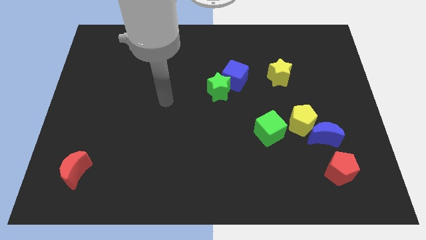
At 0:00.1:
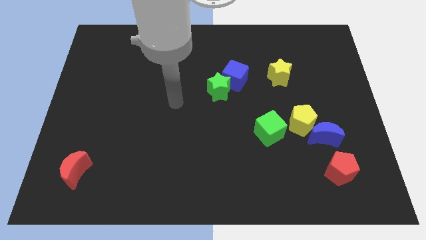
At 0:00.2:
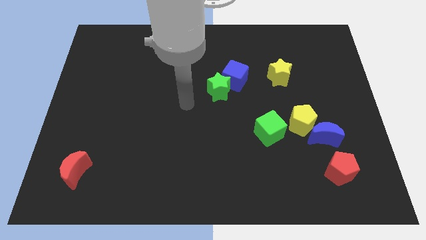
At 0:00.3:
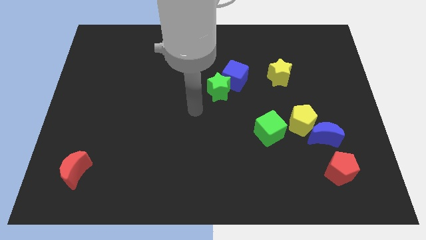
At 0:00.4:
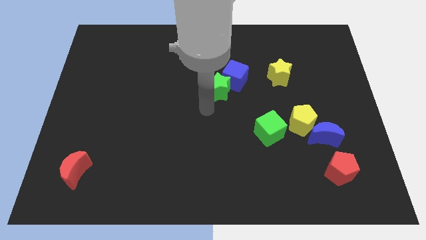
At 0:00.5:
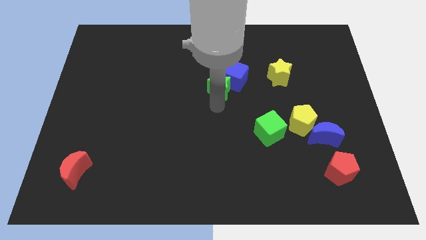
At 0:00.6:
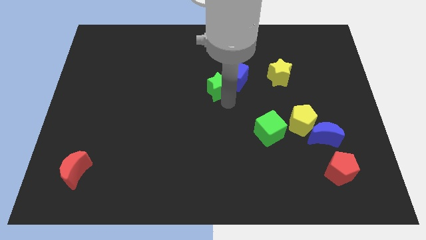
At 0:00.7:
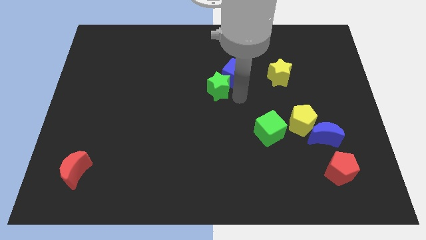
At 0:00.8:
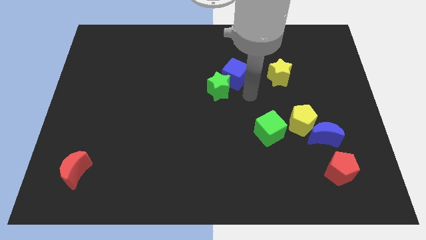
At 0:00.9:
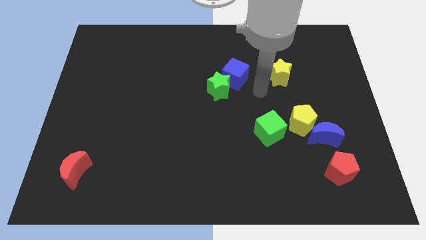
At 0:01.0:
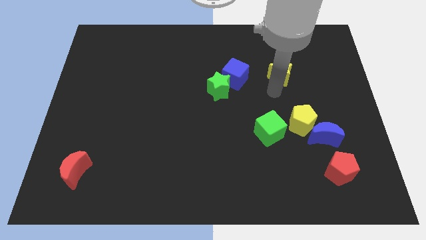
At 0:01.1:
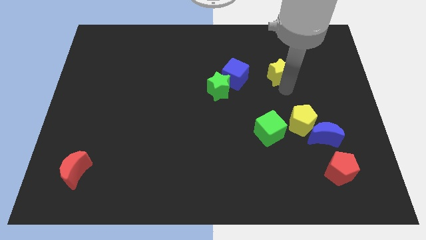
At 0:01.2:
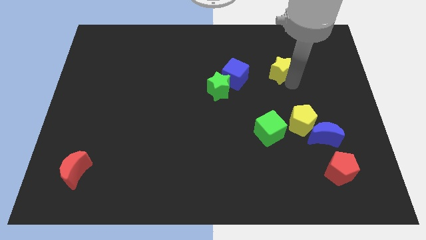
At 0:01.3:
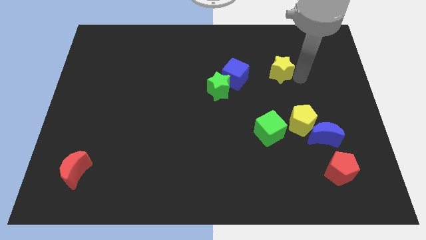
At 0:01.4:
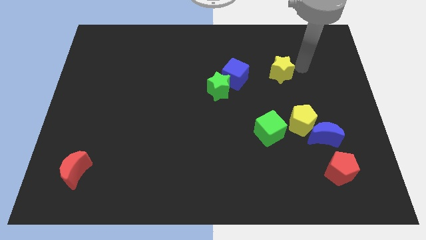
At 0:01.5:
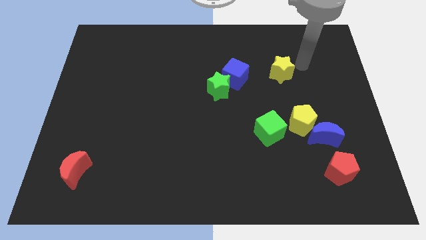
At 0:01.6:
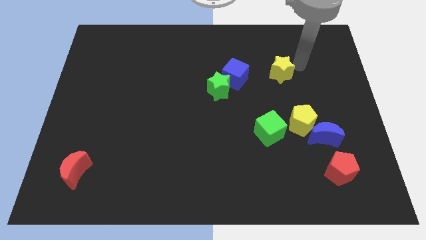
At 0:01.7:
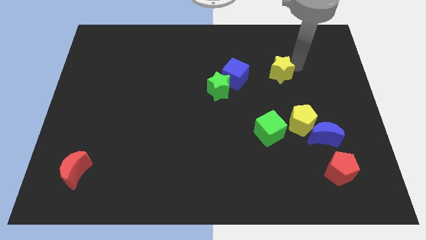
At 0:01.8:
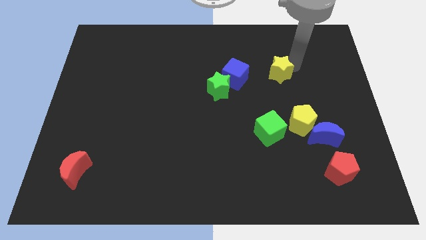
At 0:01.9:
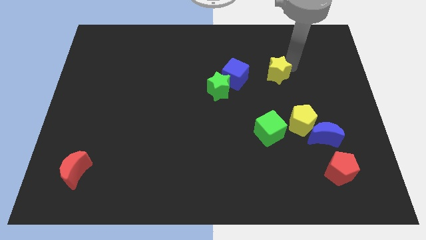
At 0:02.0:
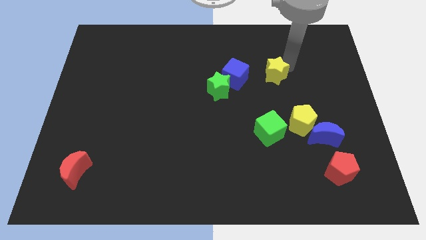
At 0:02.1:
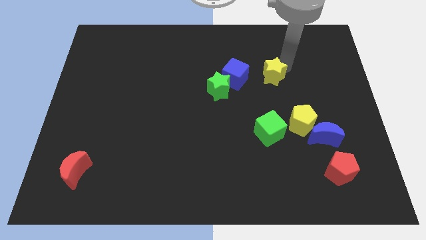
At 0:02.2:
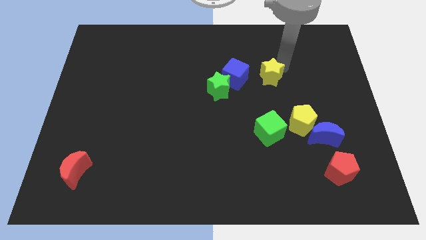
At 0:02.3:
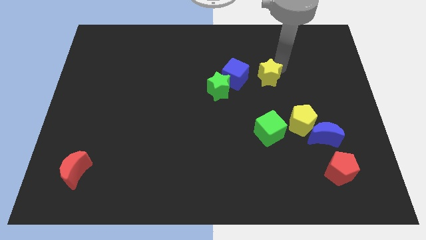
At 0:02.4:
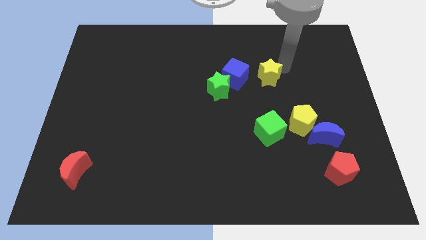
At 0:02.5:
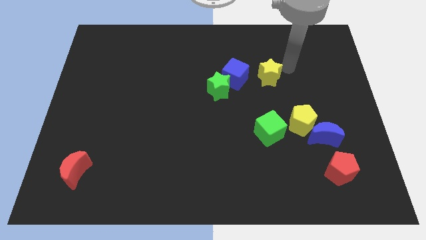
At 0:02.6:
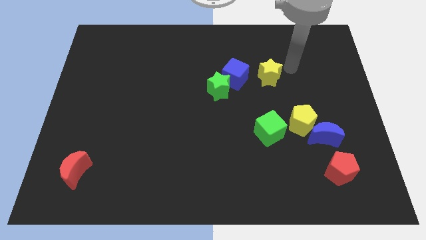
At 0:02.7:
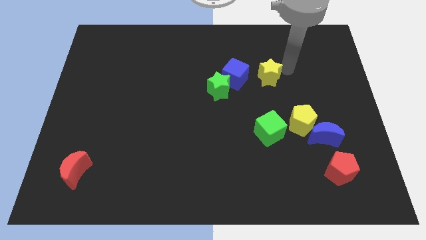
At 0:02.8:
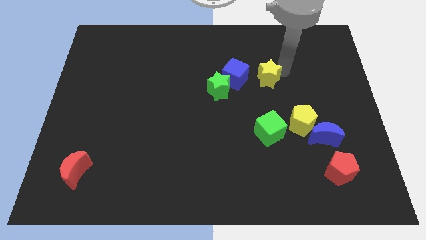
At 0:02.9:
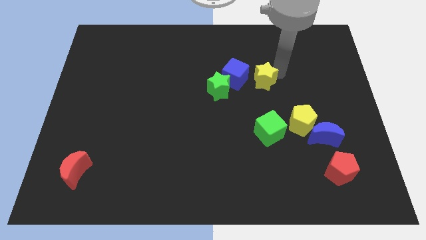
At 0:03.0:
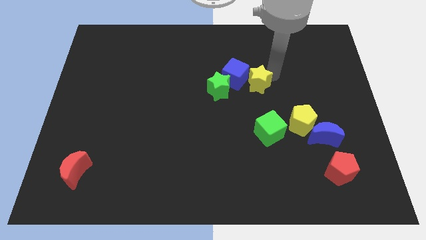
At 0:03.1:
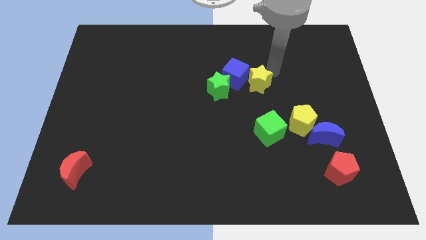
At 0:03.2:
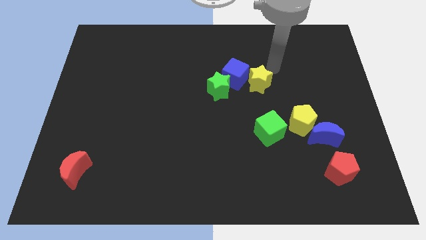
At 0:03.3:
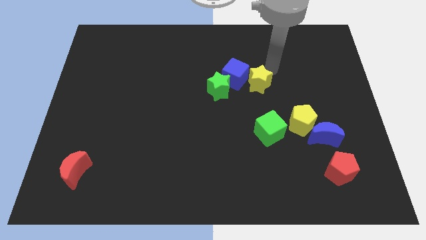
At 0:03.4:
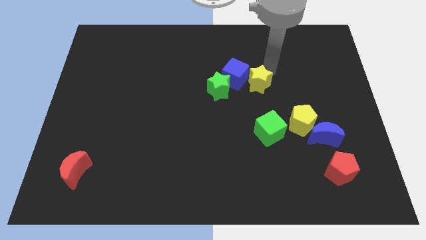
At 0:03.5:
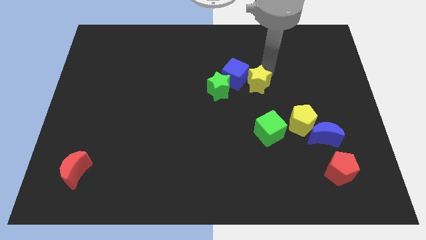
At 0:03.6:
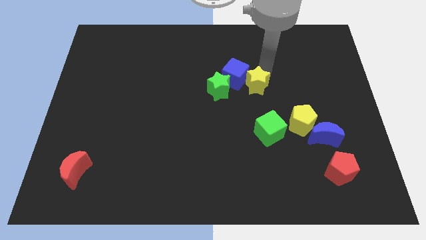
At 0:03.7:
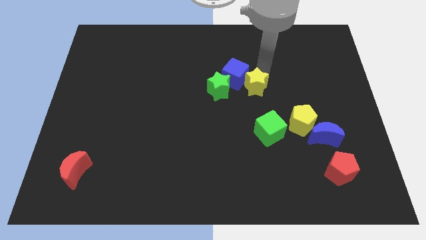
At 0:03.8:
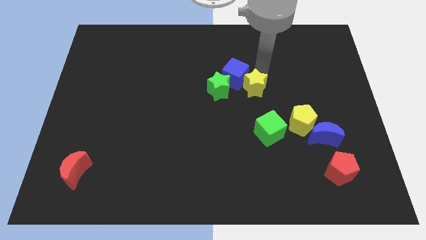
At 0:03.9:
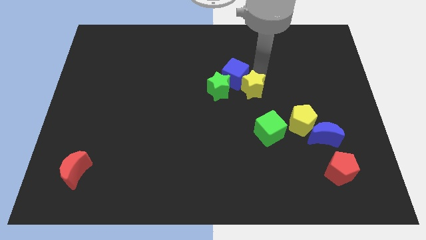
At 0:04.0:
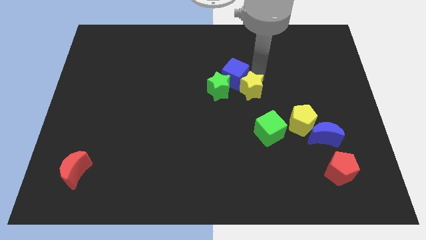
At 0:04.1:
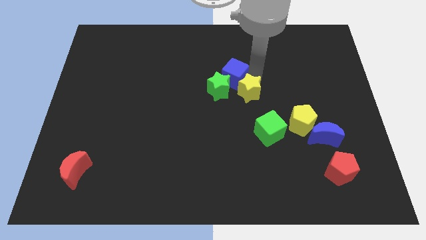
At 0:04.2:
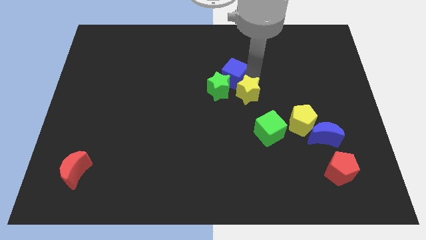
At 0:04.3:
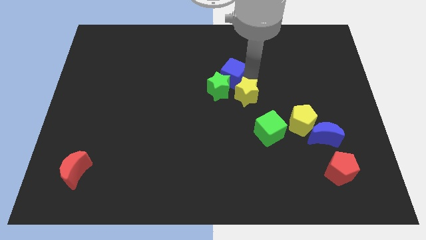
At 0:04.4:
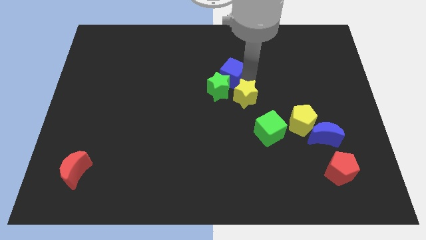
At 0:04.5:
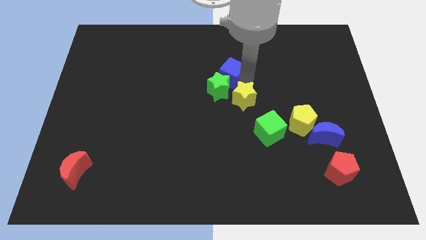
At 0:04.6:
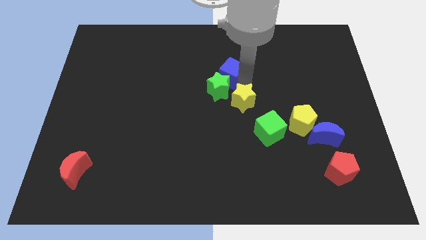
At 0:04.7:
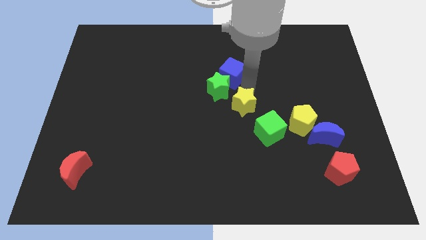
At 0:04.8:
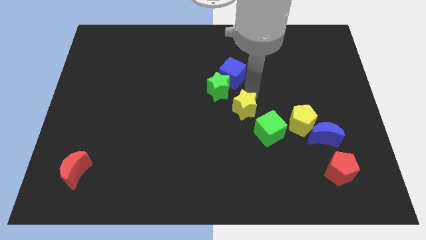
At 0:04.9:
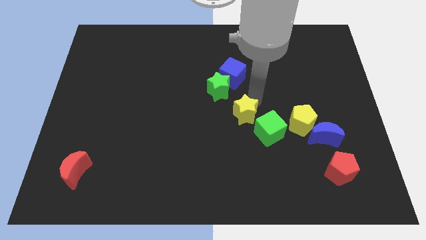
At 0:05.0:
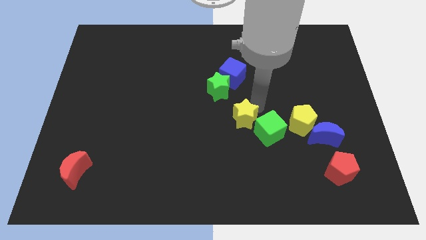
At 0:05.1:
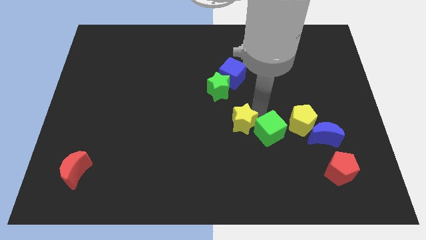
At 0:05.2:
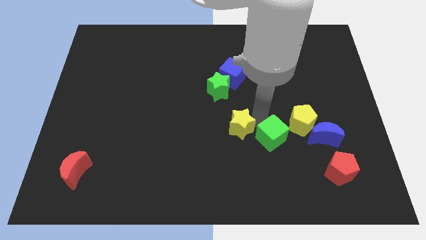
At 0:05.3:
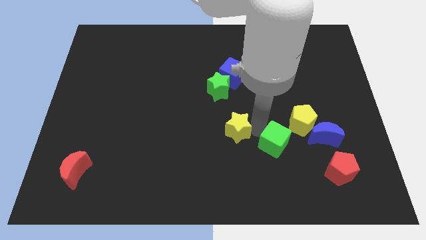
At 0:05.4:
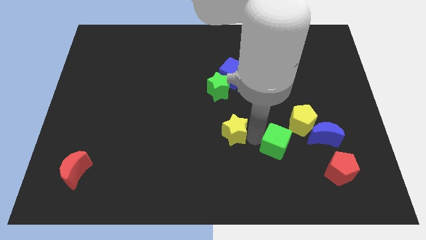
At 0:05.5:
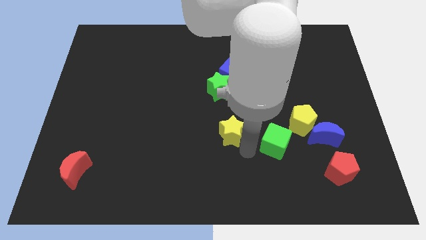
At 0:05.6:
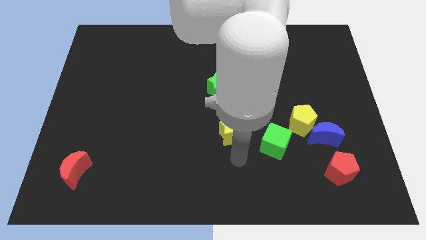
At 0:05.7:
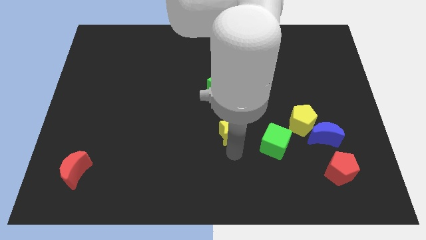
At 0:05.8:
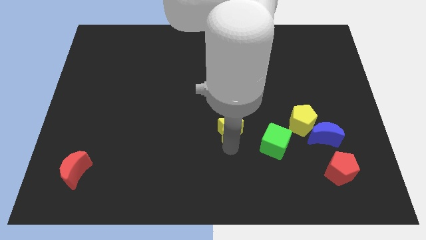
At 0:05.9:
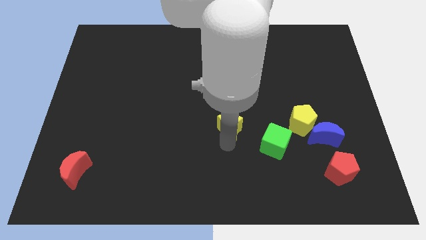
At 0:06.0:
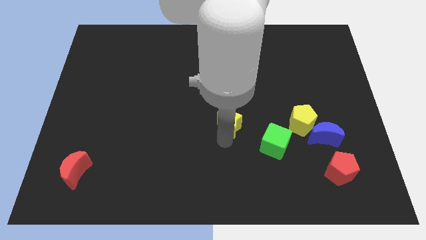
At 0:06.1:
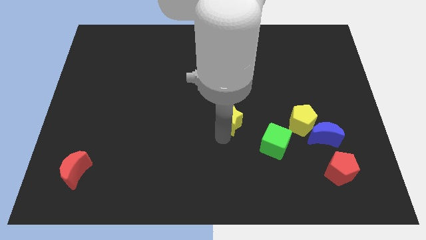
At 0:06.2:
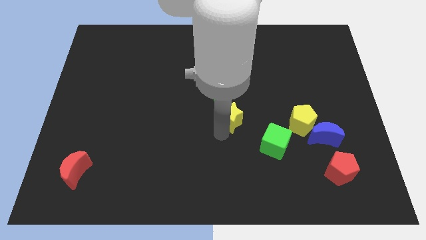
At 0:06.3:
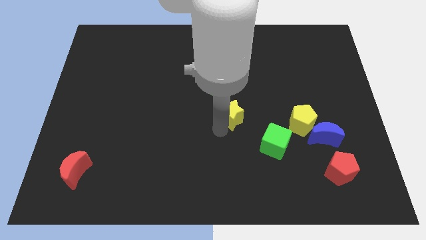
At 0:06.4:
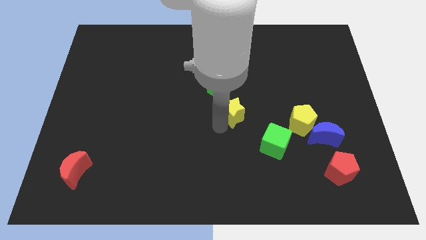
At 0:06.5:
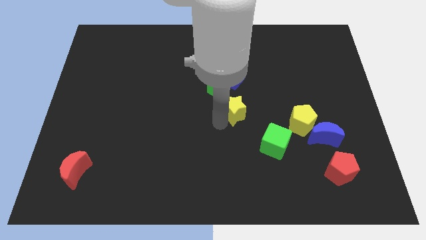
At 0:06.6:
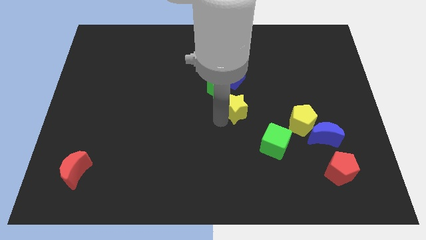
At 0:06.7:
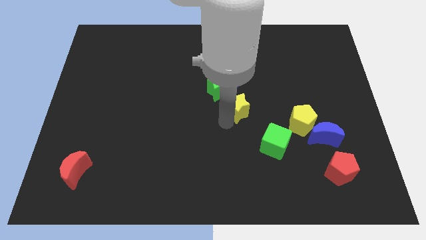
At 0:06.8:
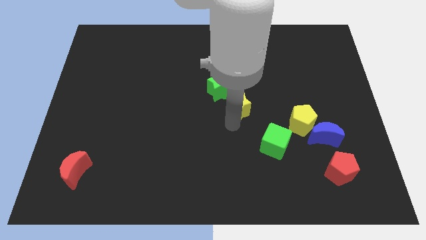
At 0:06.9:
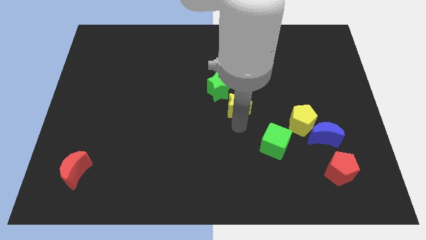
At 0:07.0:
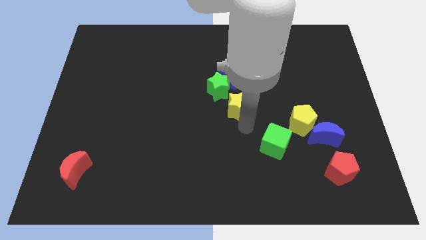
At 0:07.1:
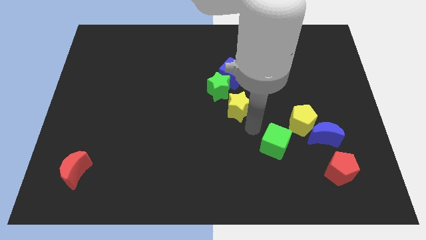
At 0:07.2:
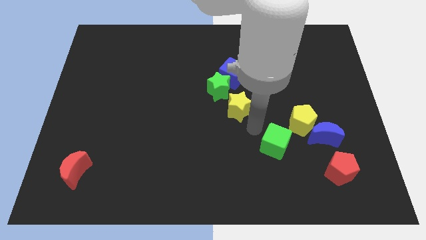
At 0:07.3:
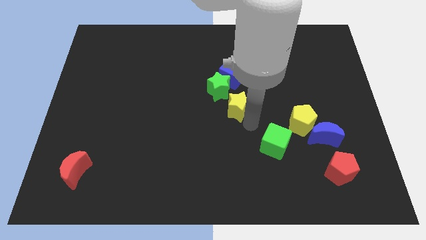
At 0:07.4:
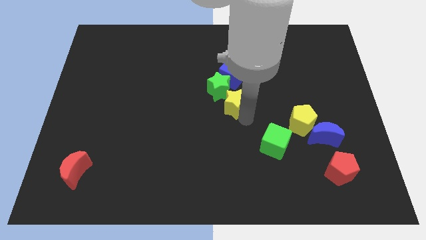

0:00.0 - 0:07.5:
put the yellow star next to the green star
